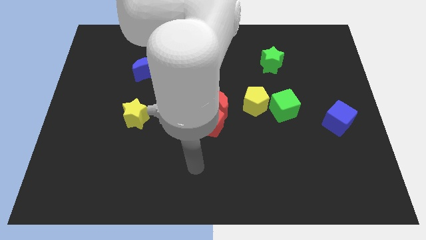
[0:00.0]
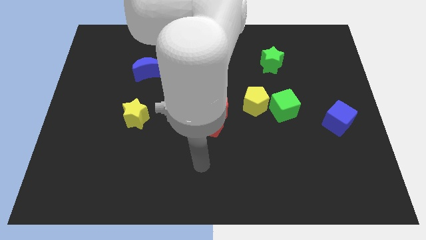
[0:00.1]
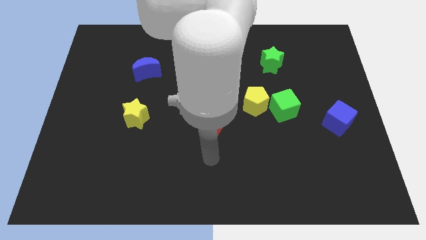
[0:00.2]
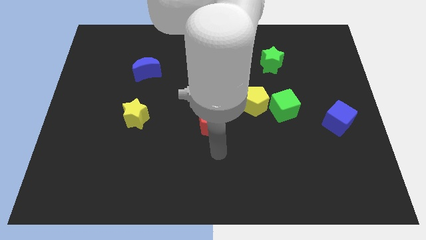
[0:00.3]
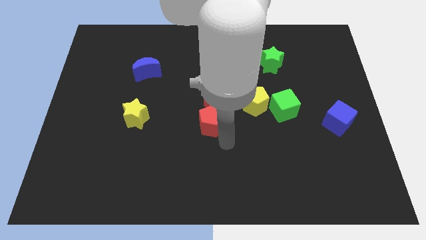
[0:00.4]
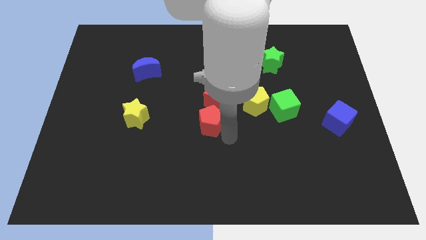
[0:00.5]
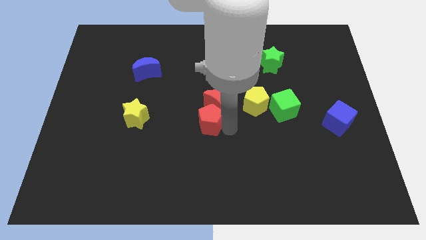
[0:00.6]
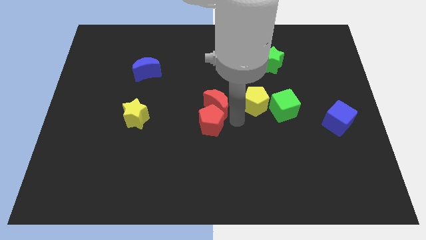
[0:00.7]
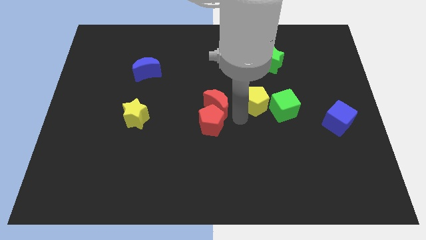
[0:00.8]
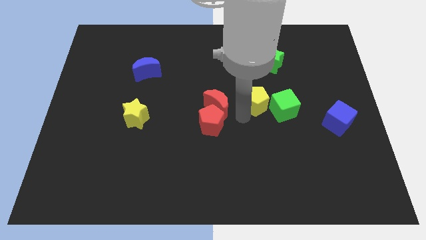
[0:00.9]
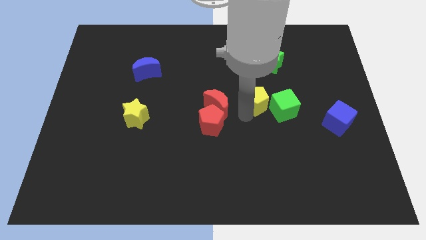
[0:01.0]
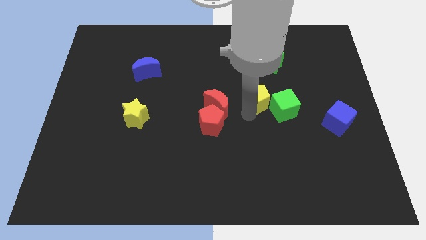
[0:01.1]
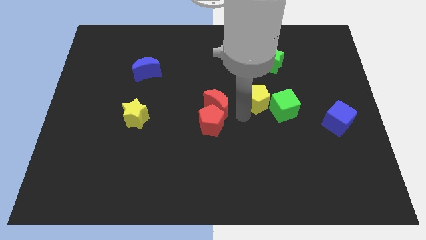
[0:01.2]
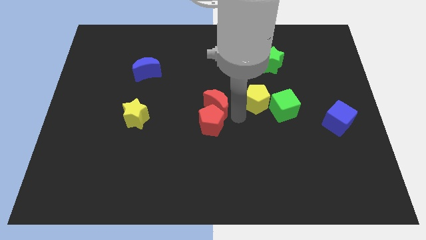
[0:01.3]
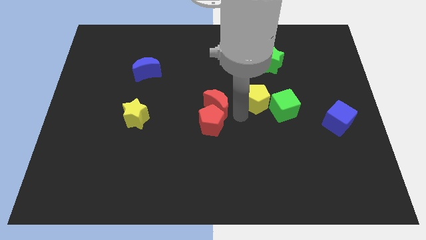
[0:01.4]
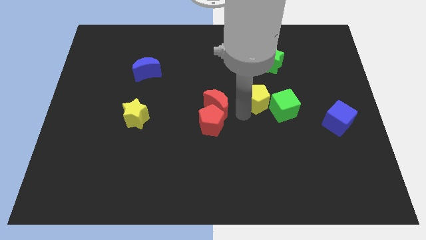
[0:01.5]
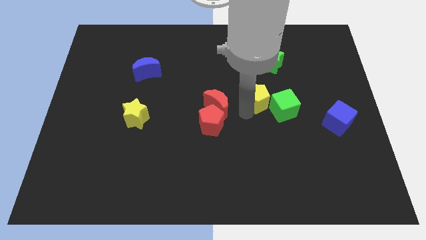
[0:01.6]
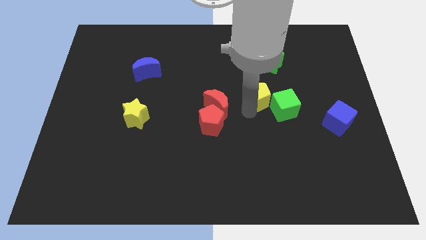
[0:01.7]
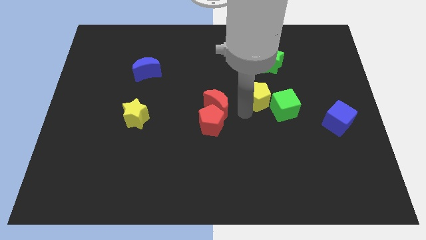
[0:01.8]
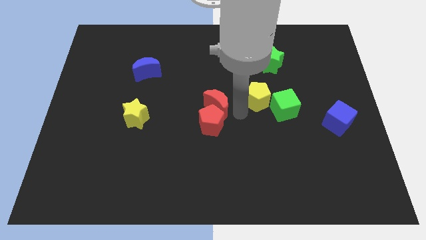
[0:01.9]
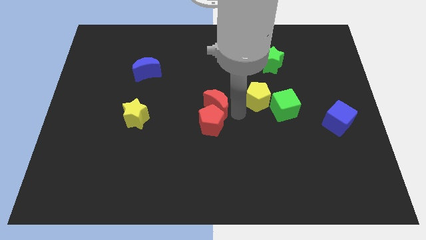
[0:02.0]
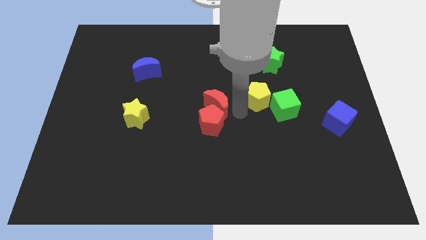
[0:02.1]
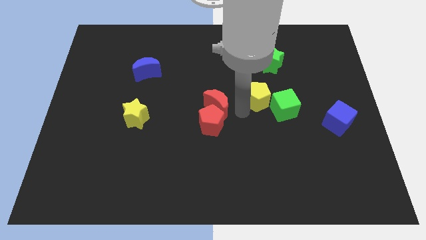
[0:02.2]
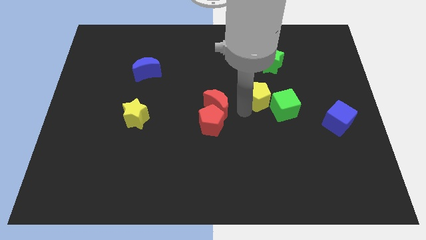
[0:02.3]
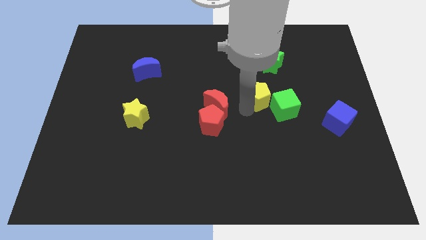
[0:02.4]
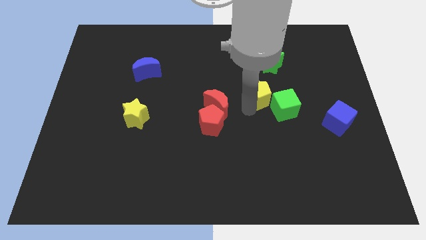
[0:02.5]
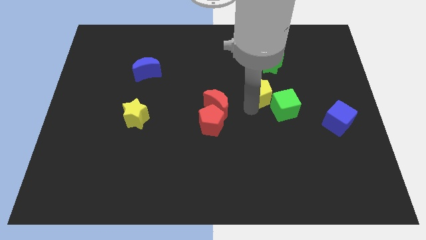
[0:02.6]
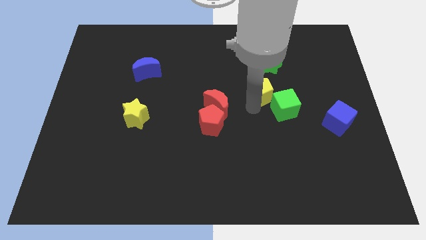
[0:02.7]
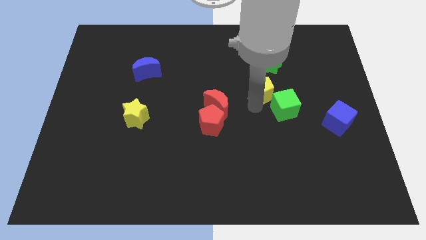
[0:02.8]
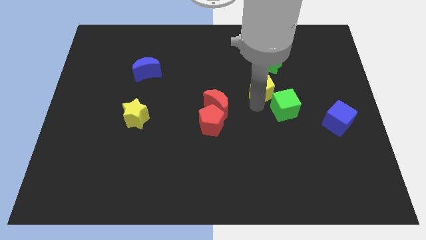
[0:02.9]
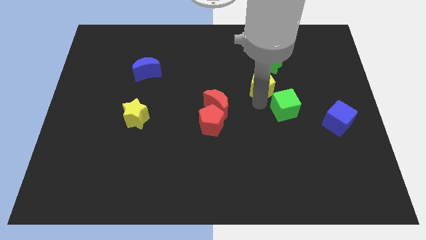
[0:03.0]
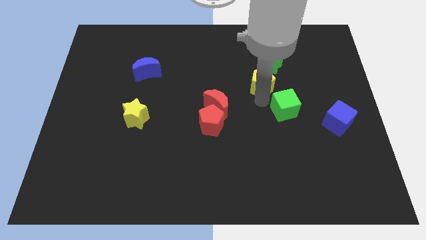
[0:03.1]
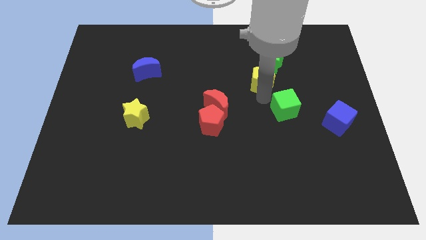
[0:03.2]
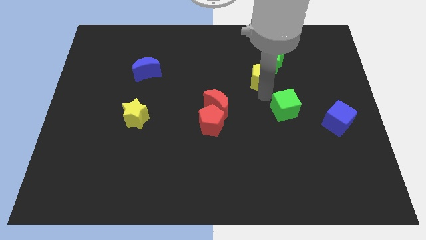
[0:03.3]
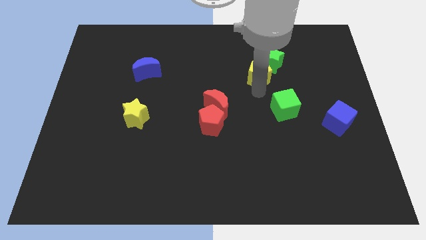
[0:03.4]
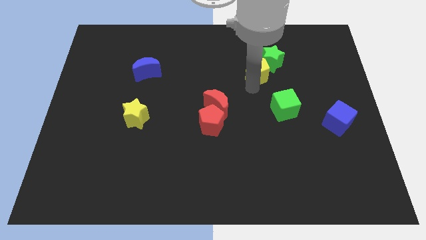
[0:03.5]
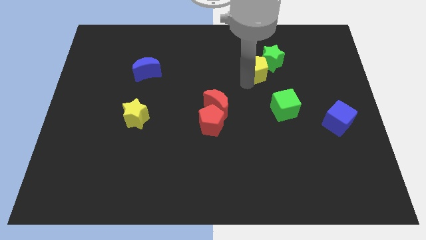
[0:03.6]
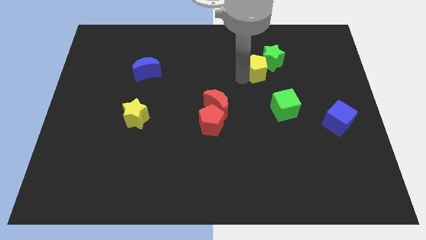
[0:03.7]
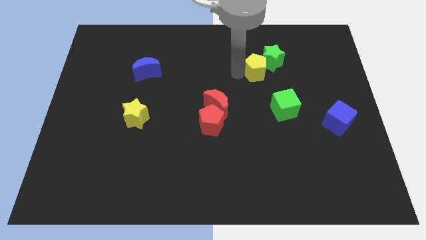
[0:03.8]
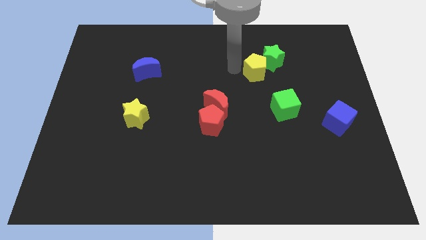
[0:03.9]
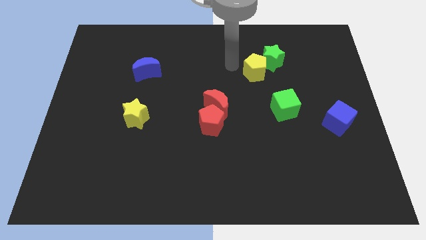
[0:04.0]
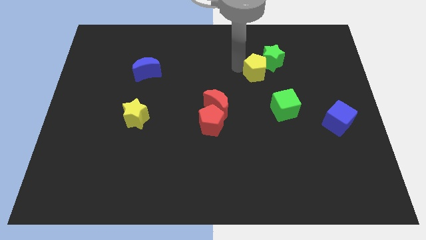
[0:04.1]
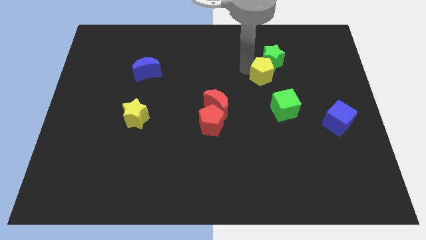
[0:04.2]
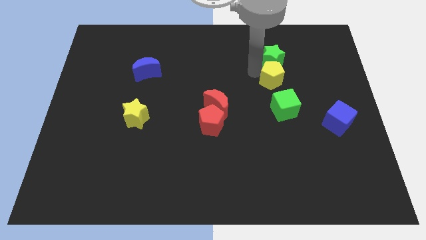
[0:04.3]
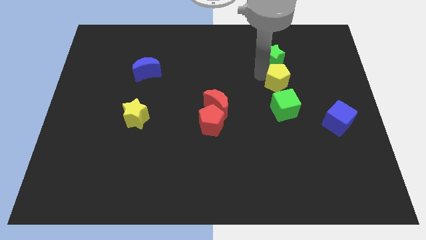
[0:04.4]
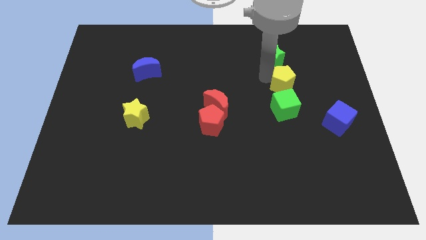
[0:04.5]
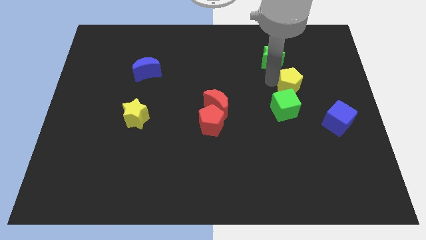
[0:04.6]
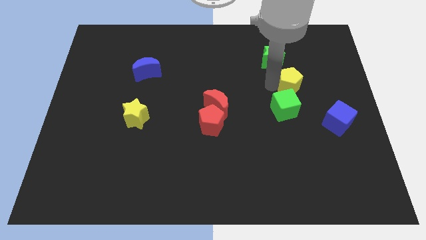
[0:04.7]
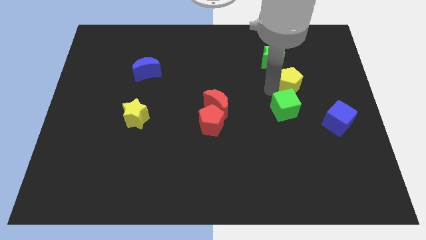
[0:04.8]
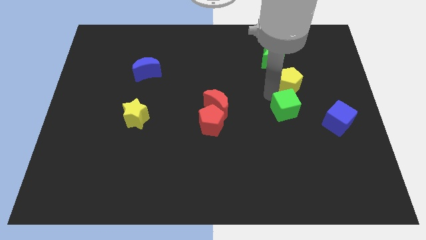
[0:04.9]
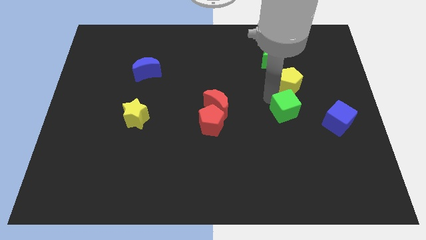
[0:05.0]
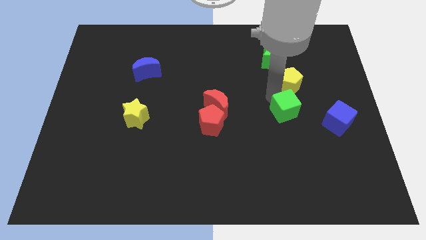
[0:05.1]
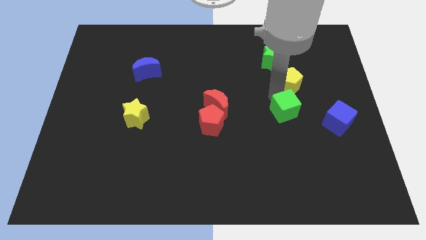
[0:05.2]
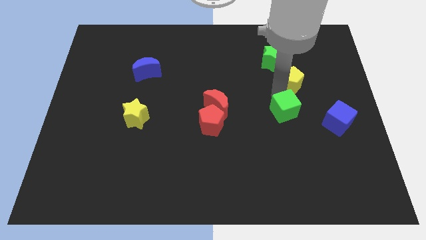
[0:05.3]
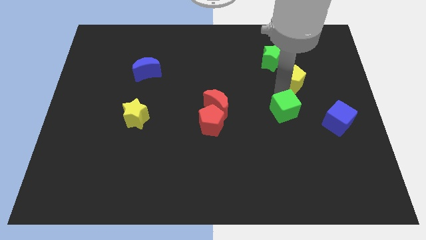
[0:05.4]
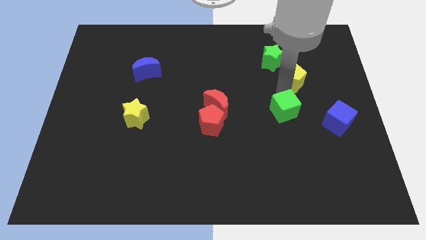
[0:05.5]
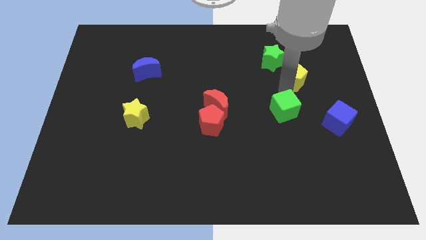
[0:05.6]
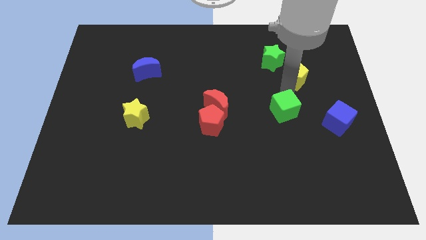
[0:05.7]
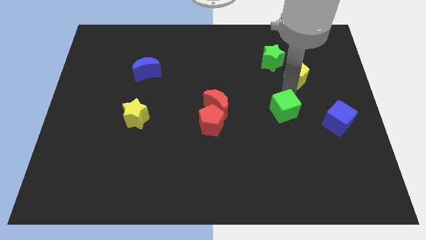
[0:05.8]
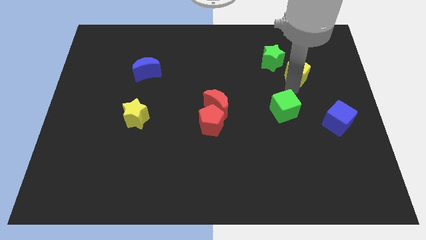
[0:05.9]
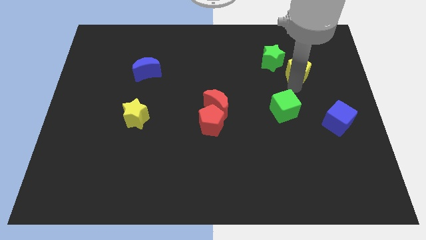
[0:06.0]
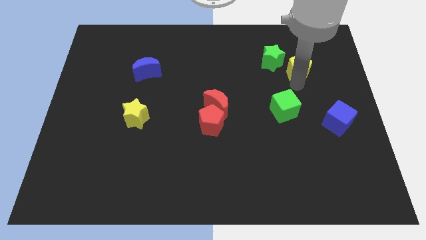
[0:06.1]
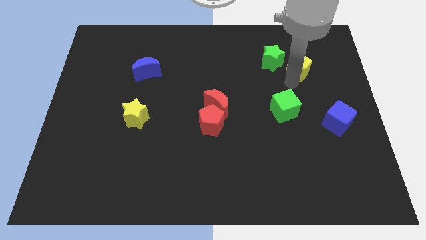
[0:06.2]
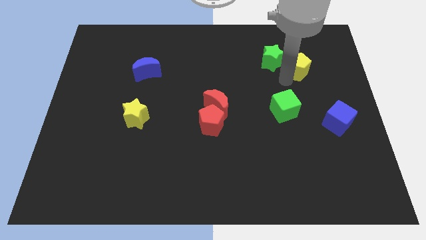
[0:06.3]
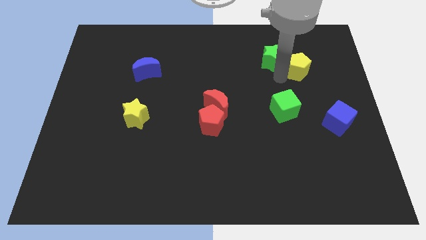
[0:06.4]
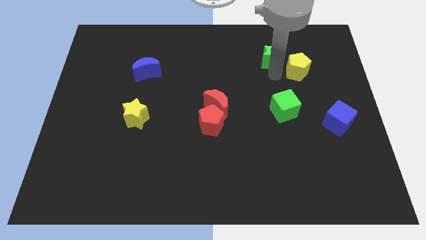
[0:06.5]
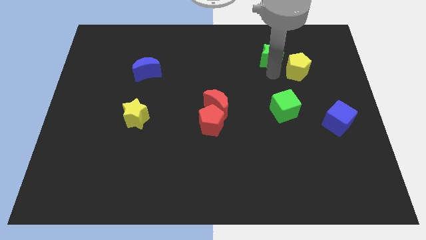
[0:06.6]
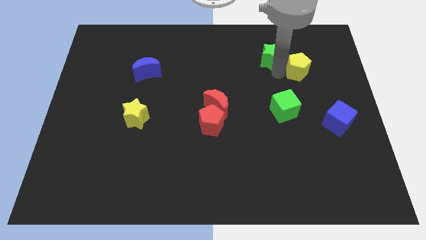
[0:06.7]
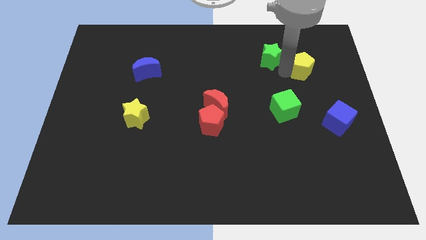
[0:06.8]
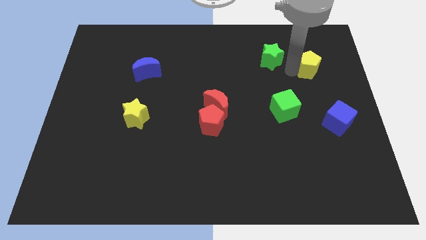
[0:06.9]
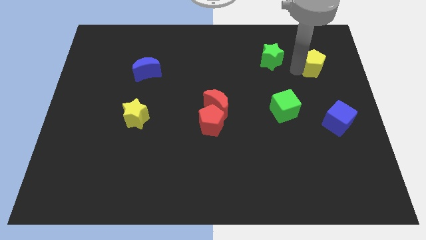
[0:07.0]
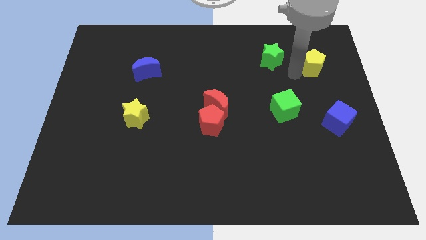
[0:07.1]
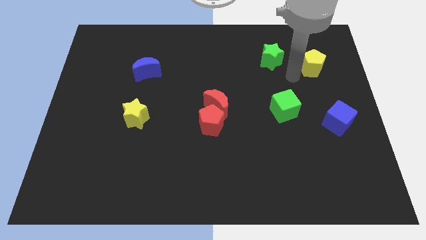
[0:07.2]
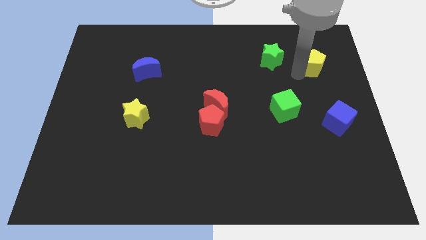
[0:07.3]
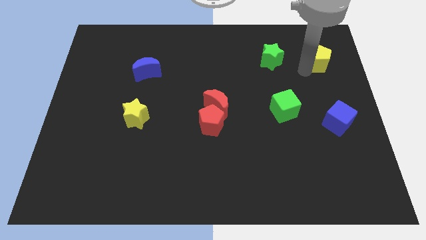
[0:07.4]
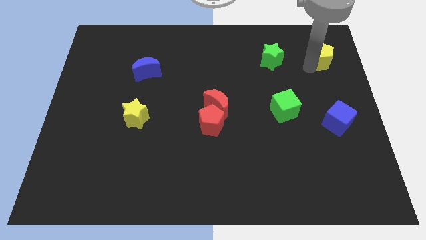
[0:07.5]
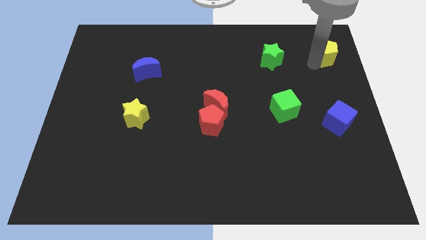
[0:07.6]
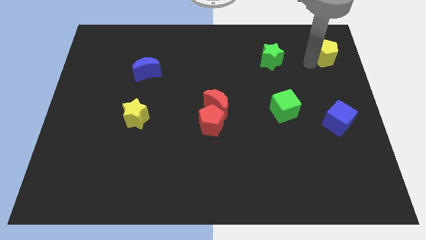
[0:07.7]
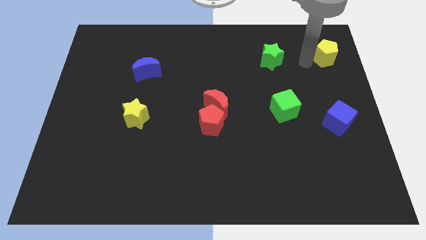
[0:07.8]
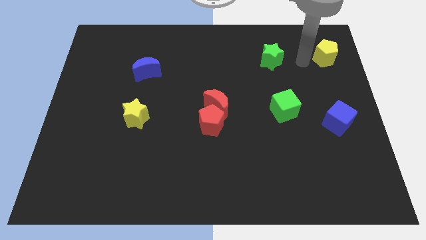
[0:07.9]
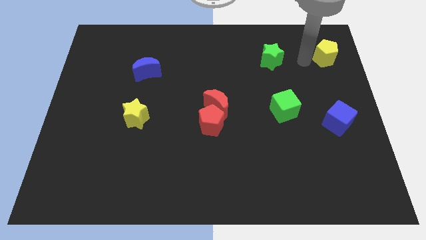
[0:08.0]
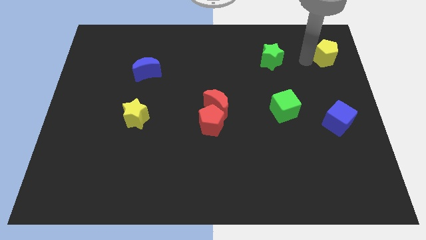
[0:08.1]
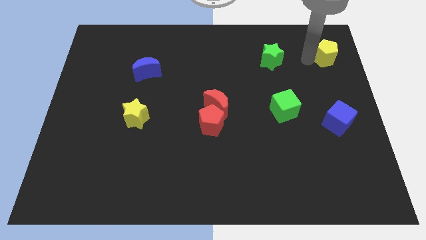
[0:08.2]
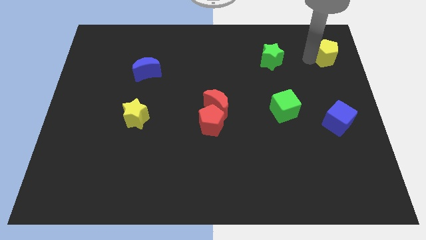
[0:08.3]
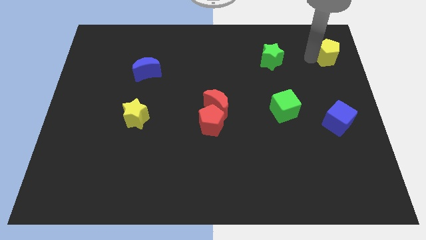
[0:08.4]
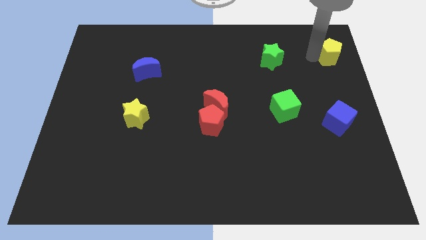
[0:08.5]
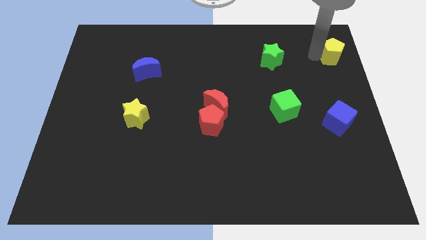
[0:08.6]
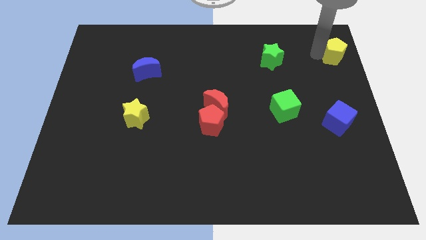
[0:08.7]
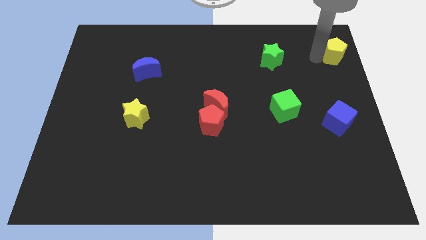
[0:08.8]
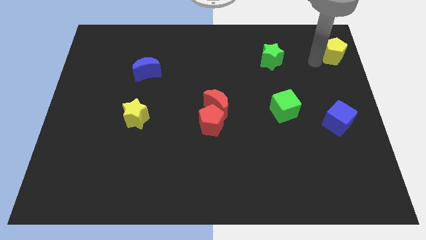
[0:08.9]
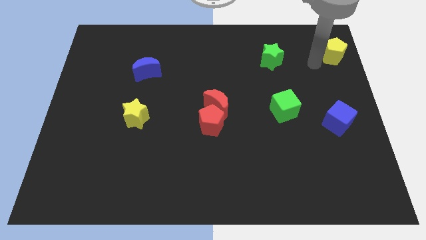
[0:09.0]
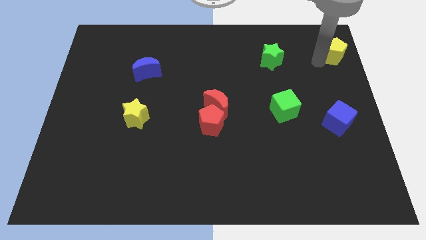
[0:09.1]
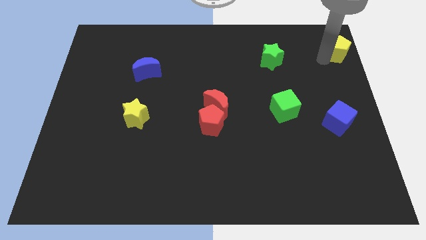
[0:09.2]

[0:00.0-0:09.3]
slide the yellow pentagon to the top right
